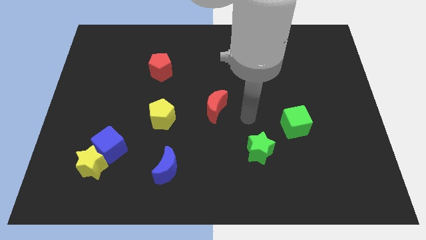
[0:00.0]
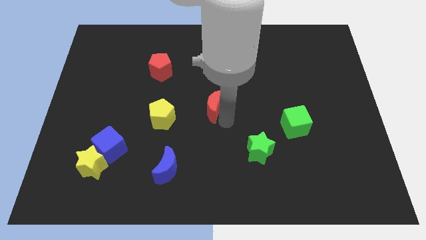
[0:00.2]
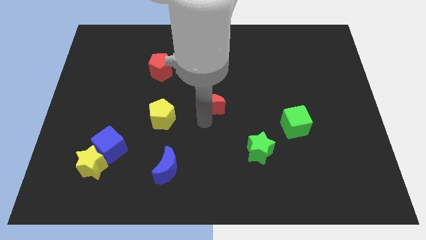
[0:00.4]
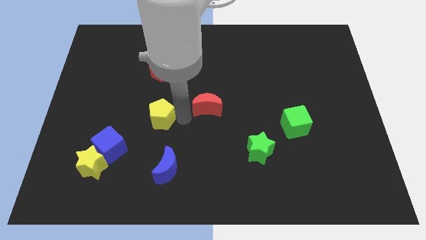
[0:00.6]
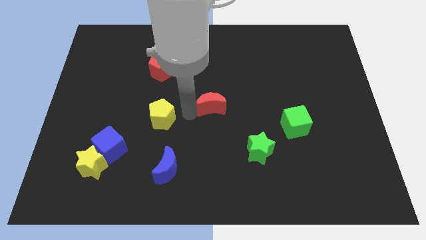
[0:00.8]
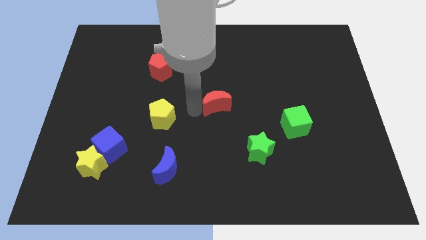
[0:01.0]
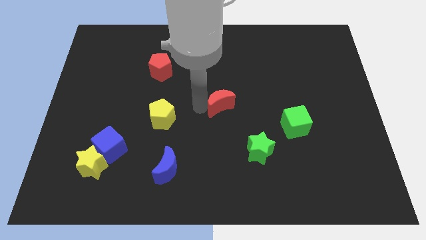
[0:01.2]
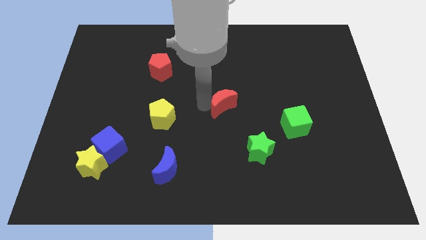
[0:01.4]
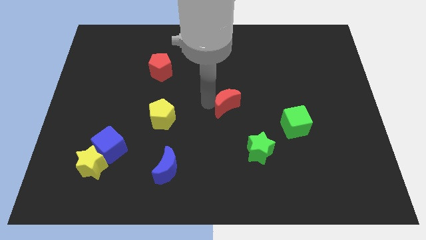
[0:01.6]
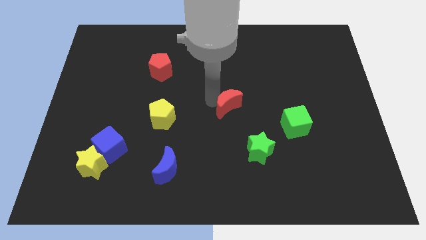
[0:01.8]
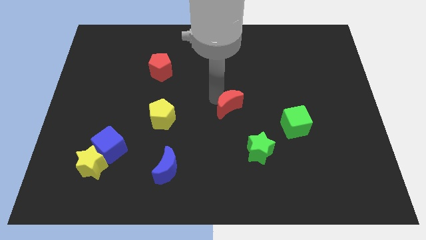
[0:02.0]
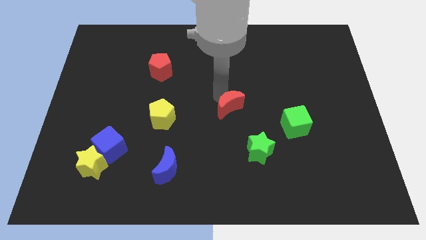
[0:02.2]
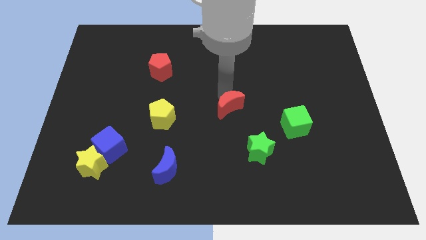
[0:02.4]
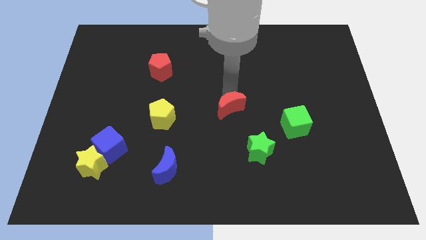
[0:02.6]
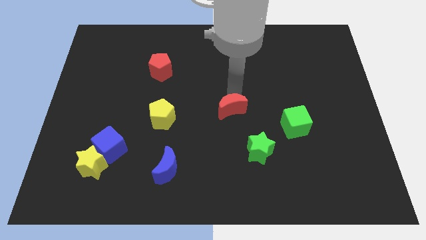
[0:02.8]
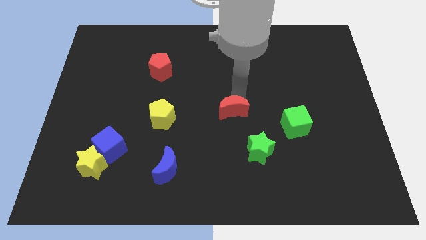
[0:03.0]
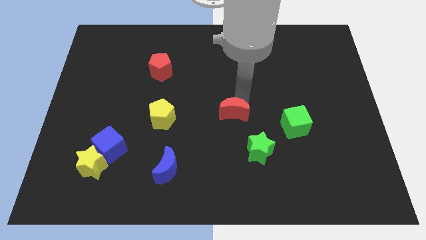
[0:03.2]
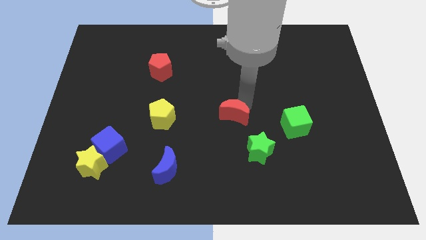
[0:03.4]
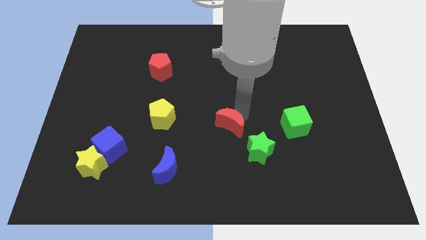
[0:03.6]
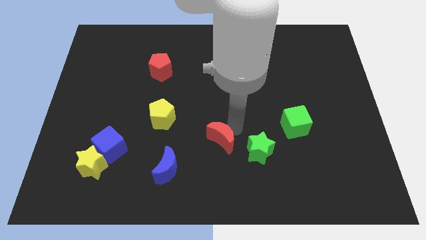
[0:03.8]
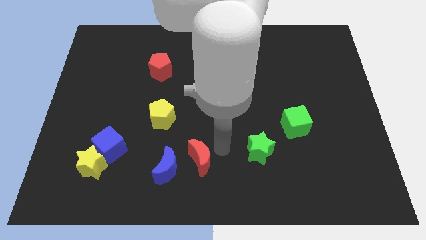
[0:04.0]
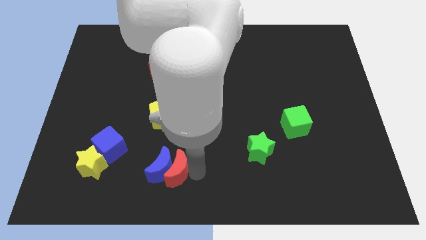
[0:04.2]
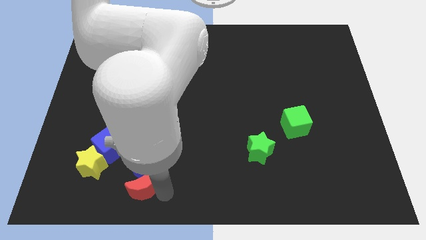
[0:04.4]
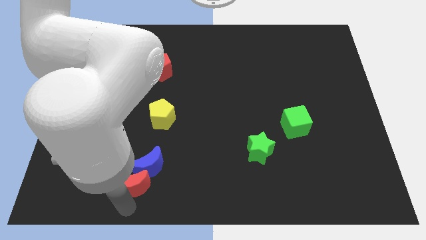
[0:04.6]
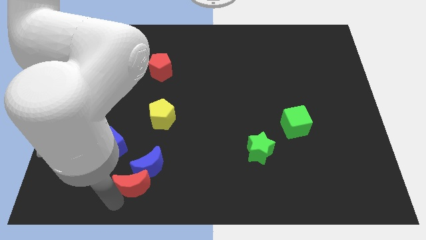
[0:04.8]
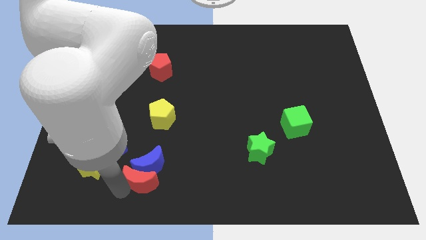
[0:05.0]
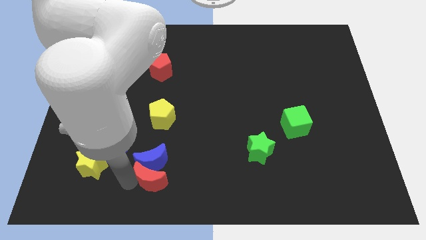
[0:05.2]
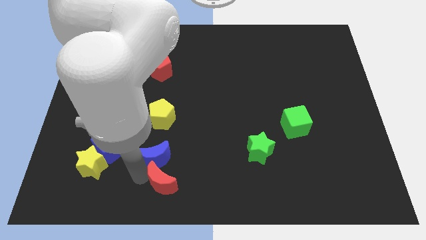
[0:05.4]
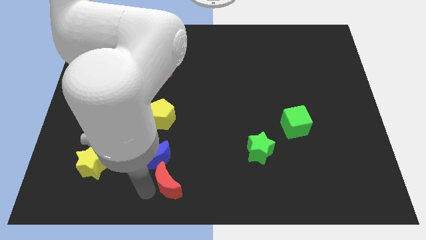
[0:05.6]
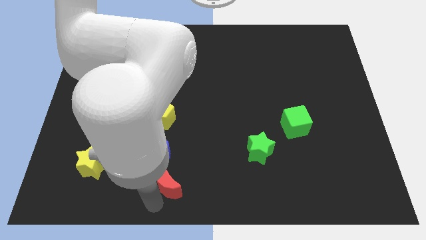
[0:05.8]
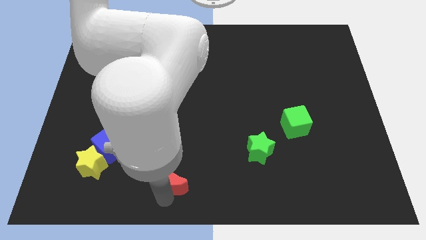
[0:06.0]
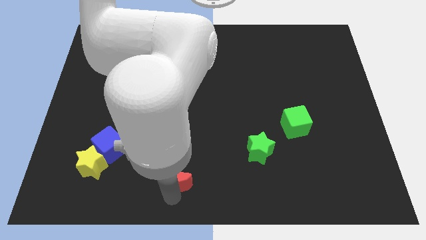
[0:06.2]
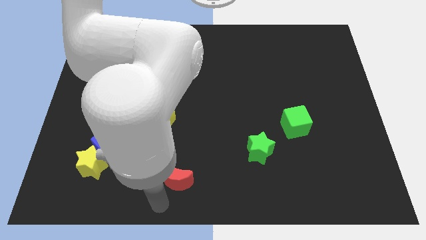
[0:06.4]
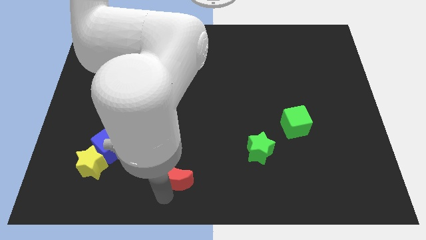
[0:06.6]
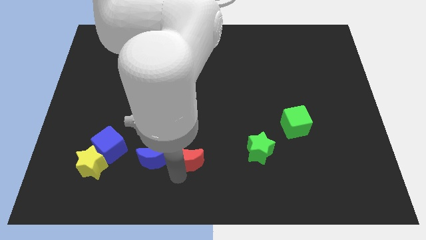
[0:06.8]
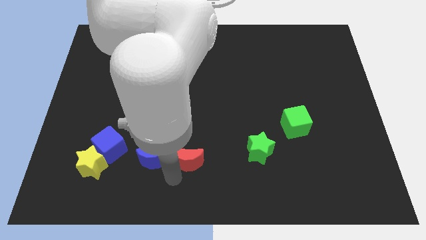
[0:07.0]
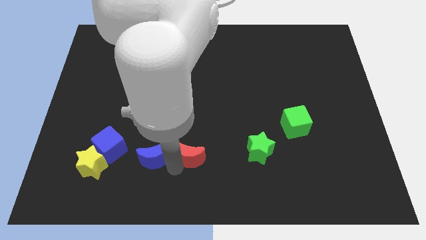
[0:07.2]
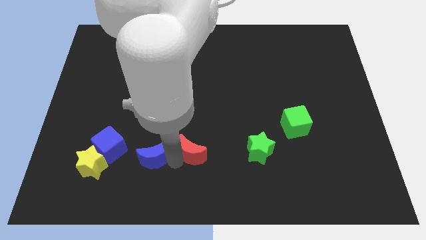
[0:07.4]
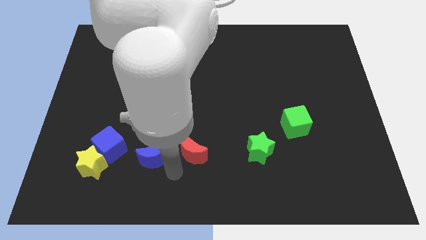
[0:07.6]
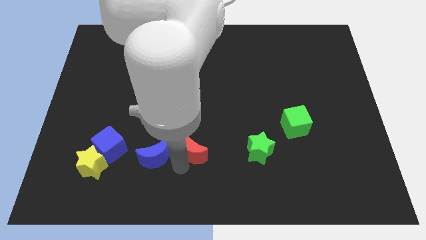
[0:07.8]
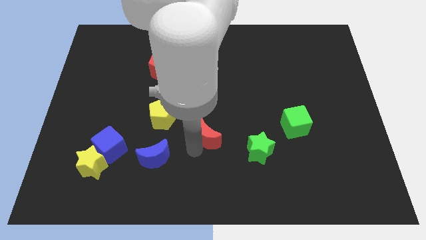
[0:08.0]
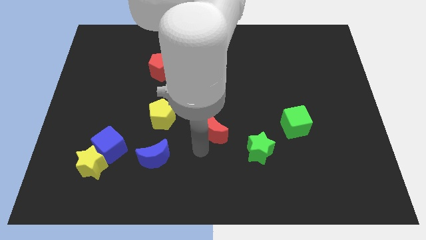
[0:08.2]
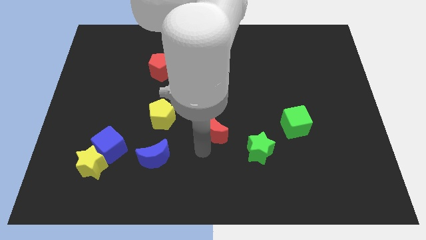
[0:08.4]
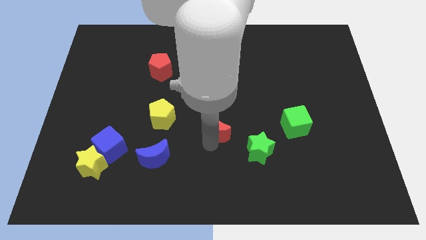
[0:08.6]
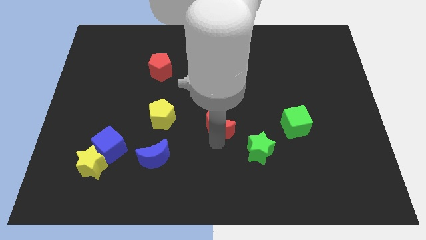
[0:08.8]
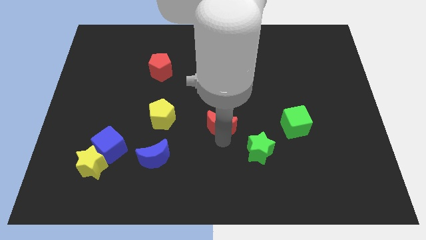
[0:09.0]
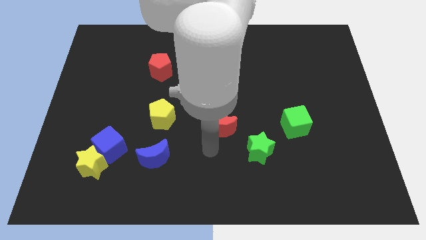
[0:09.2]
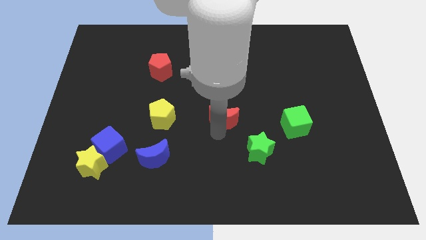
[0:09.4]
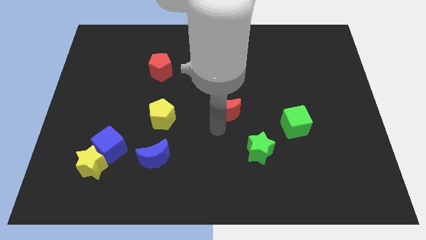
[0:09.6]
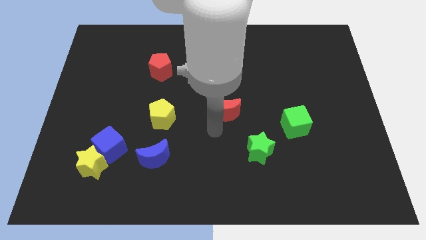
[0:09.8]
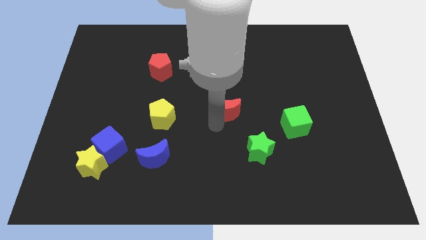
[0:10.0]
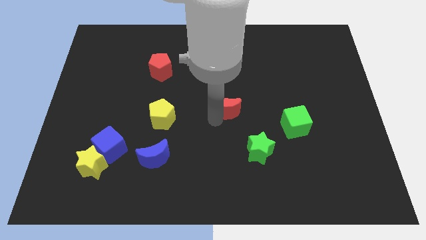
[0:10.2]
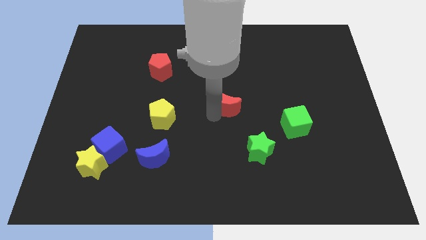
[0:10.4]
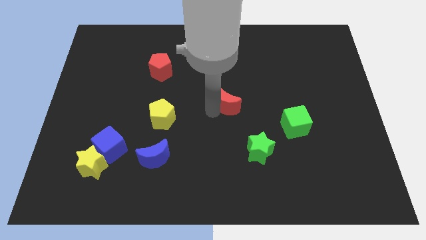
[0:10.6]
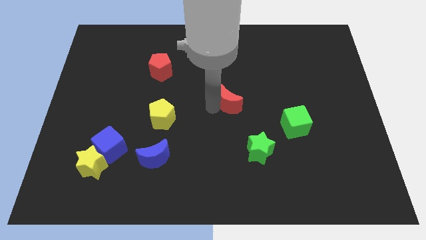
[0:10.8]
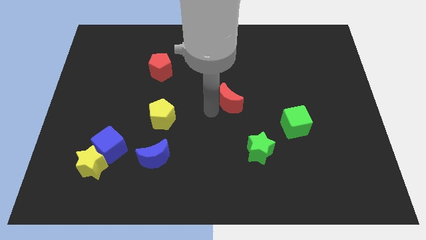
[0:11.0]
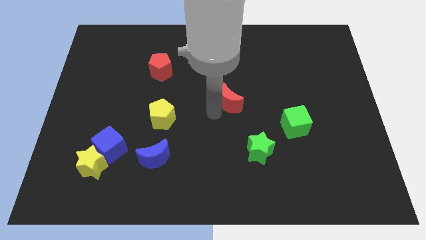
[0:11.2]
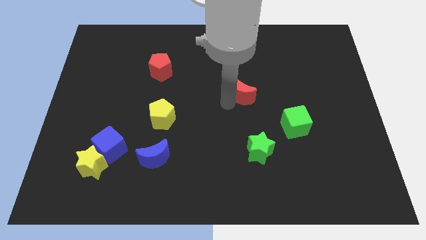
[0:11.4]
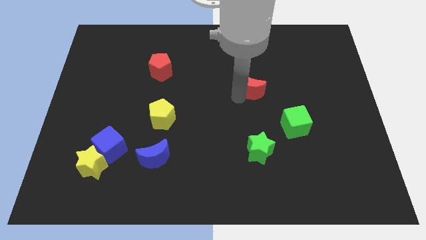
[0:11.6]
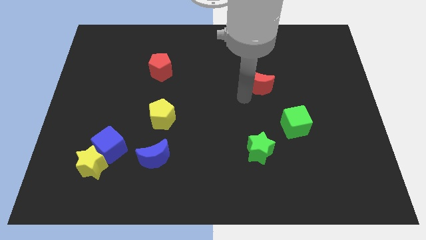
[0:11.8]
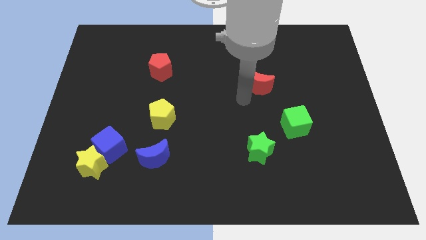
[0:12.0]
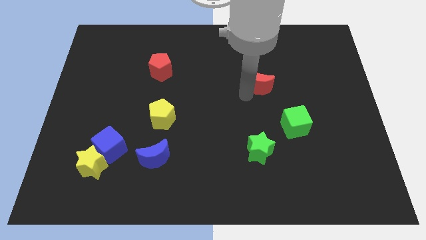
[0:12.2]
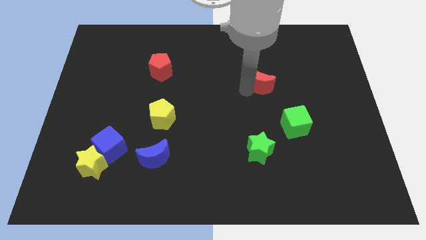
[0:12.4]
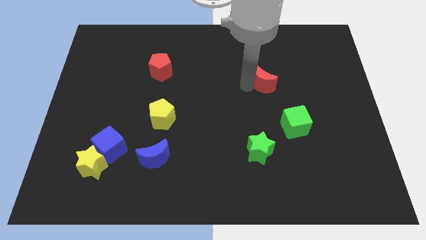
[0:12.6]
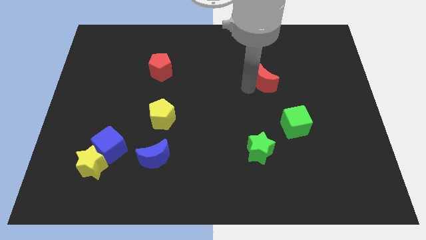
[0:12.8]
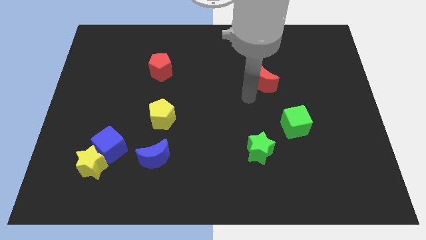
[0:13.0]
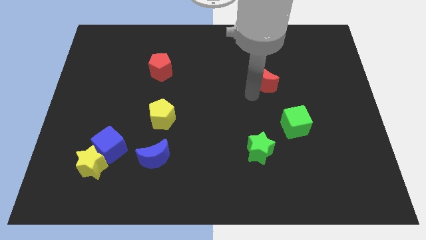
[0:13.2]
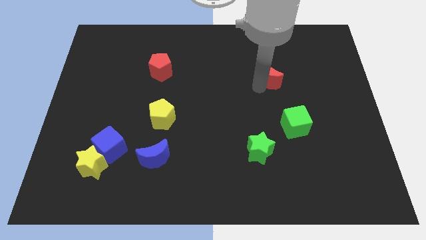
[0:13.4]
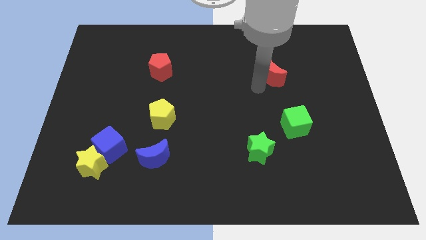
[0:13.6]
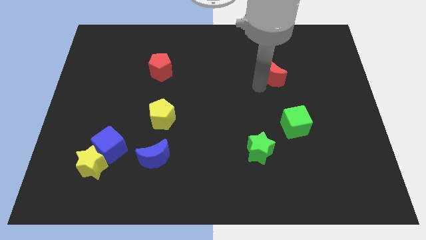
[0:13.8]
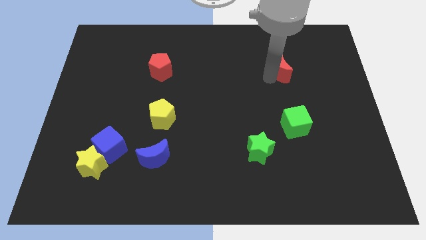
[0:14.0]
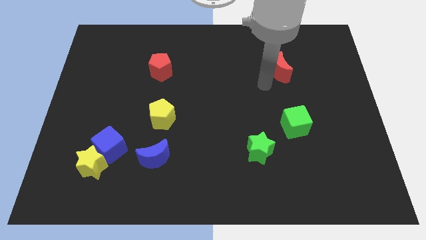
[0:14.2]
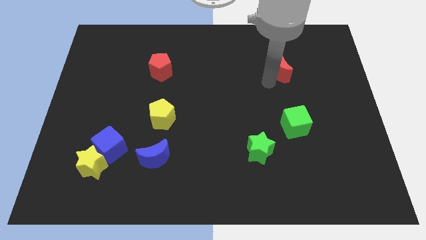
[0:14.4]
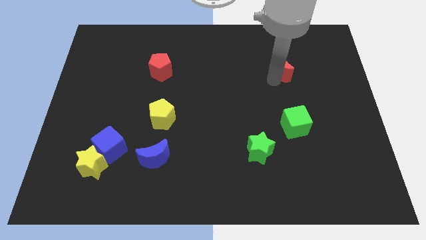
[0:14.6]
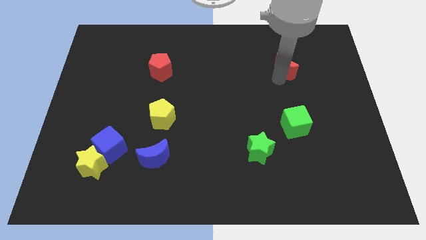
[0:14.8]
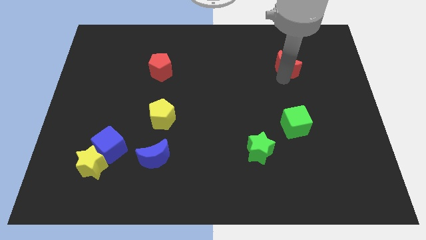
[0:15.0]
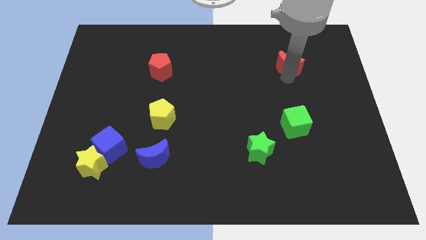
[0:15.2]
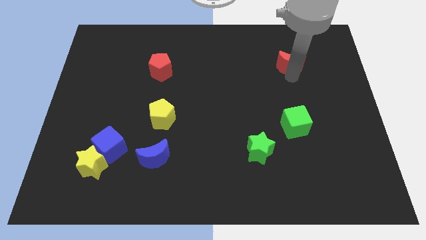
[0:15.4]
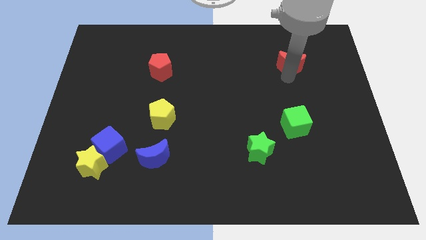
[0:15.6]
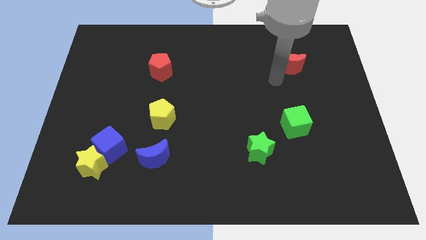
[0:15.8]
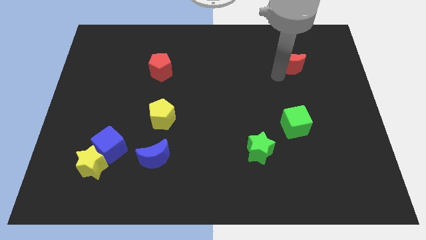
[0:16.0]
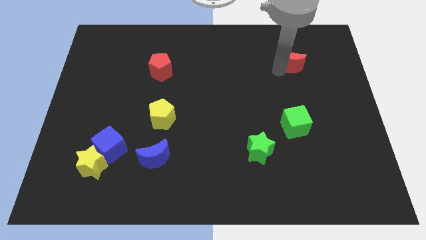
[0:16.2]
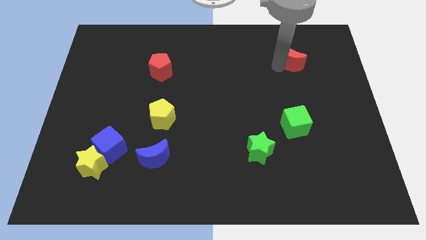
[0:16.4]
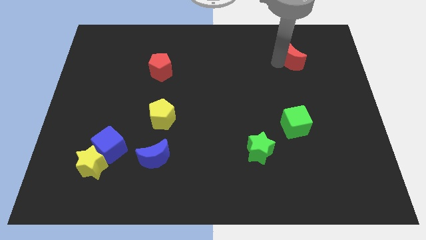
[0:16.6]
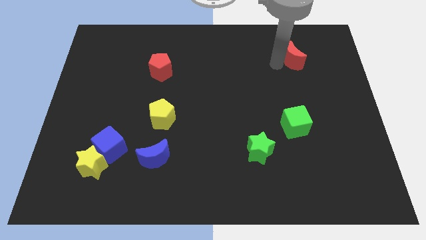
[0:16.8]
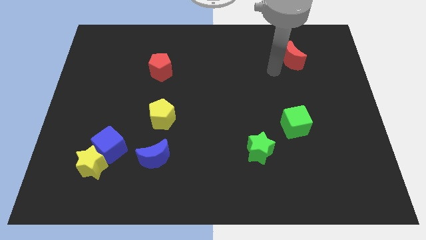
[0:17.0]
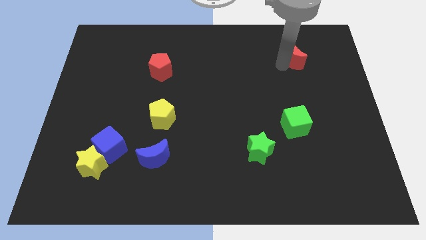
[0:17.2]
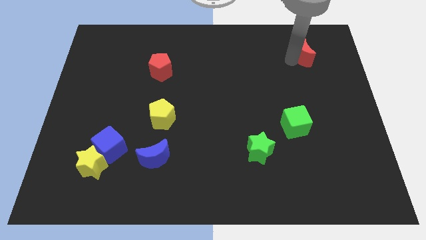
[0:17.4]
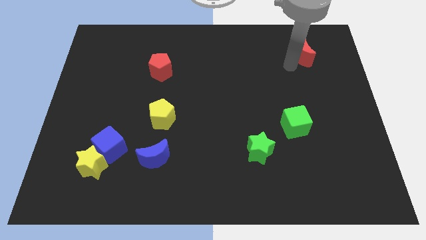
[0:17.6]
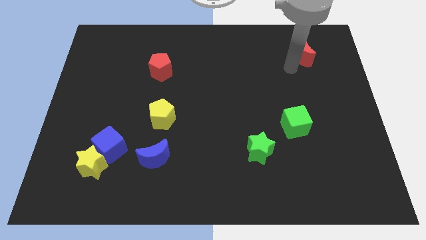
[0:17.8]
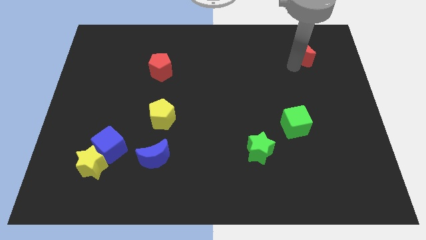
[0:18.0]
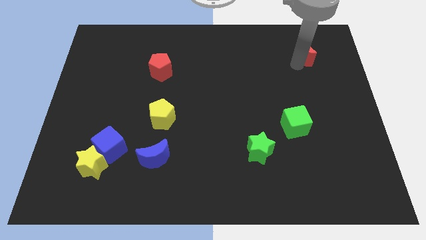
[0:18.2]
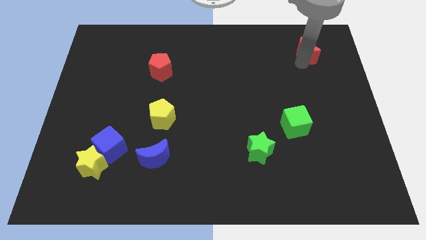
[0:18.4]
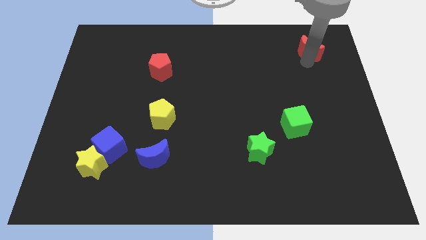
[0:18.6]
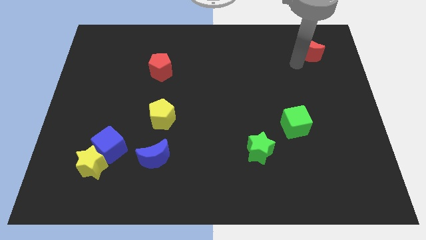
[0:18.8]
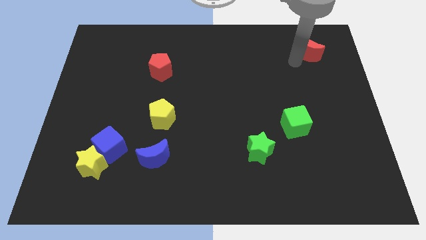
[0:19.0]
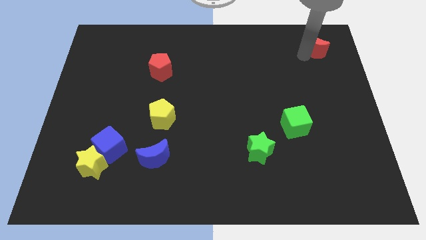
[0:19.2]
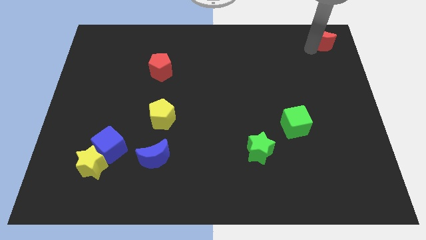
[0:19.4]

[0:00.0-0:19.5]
push the red moon to the upper right corner
